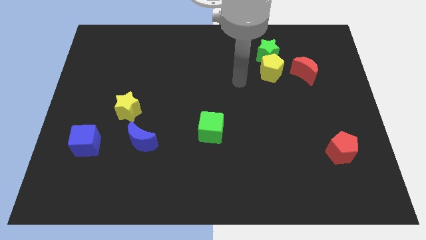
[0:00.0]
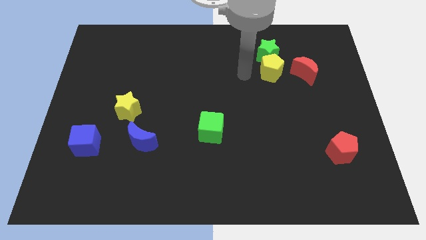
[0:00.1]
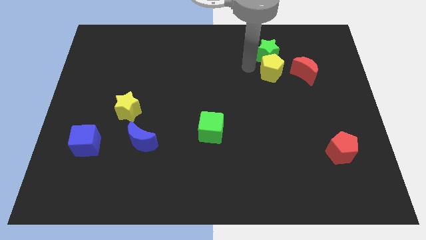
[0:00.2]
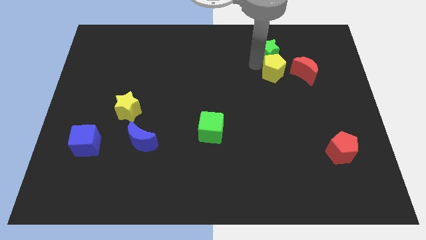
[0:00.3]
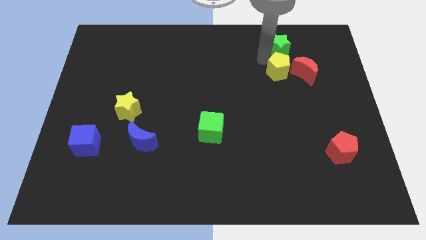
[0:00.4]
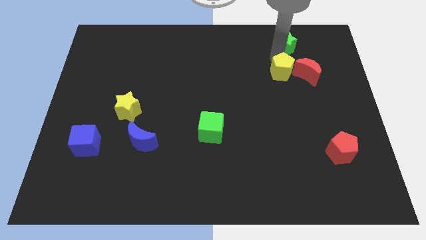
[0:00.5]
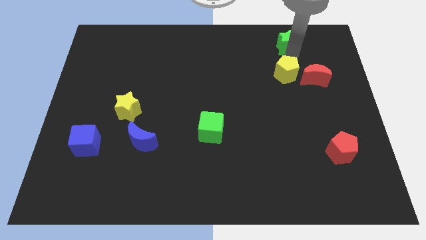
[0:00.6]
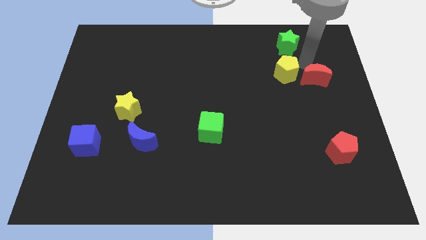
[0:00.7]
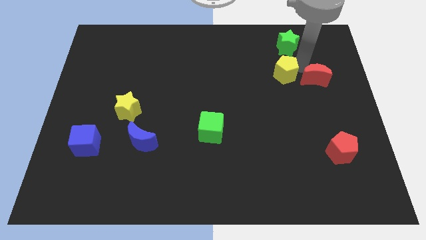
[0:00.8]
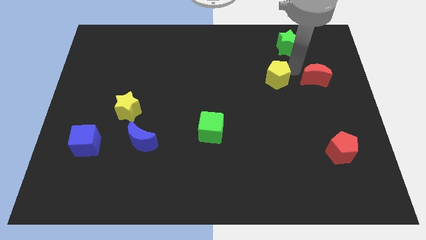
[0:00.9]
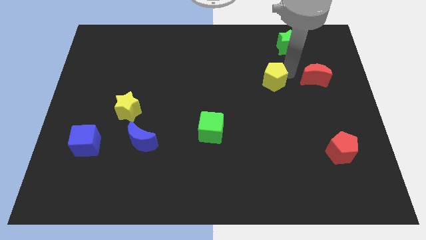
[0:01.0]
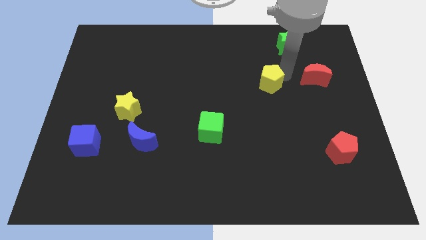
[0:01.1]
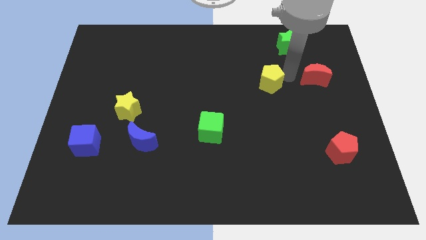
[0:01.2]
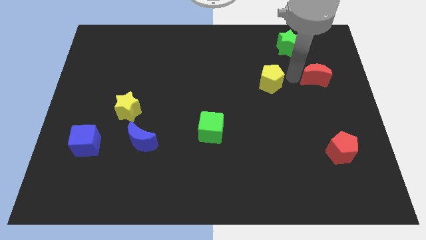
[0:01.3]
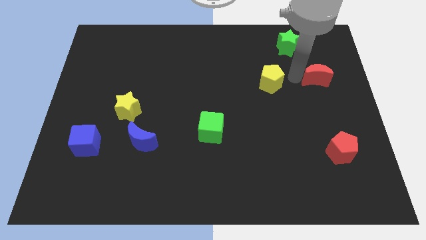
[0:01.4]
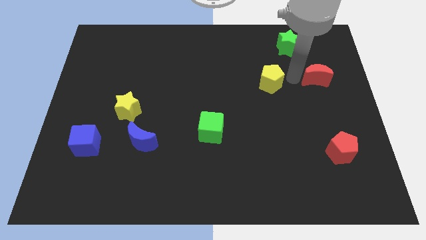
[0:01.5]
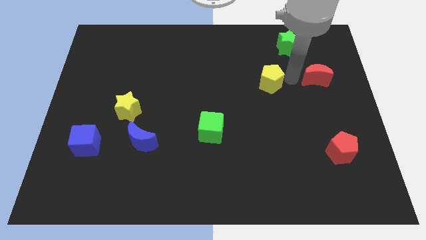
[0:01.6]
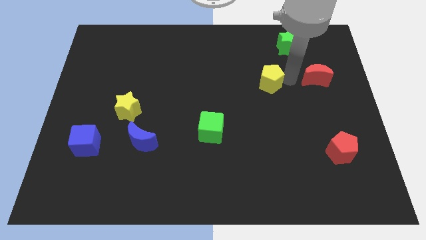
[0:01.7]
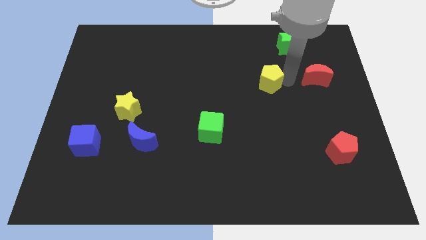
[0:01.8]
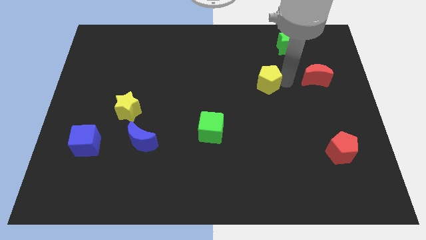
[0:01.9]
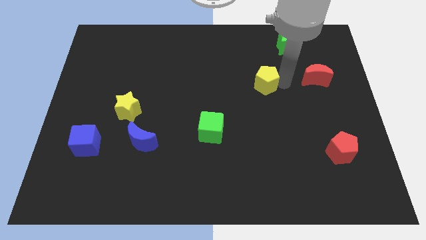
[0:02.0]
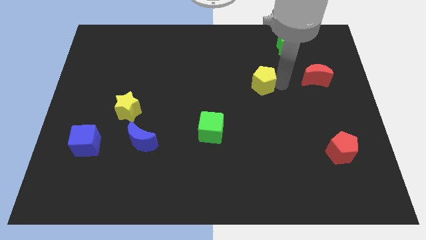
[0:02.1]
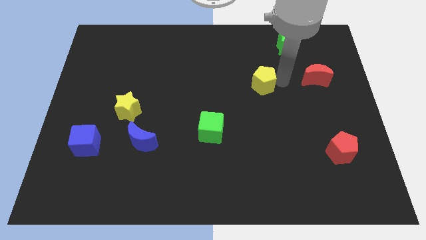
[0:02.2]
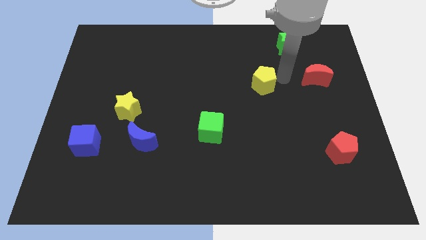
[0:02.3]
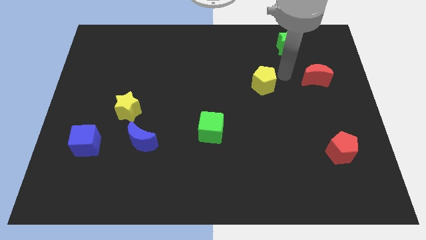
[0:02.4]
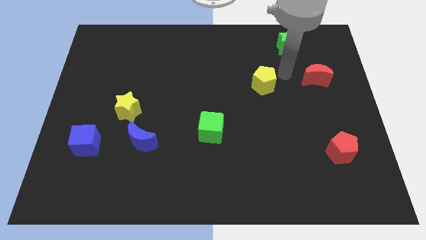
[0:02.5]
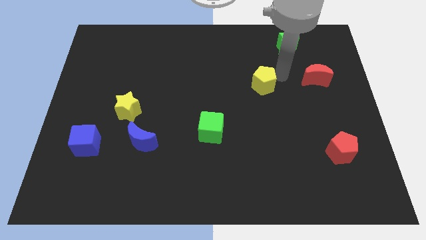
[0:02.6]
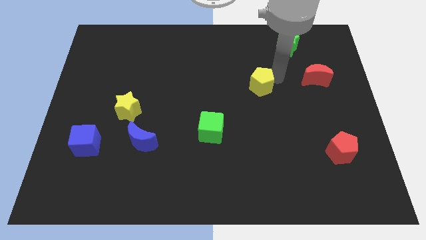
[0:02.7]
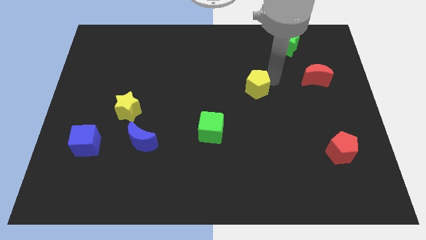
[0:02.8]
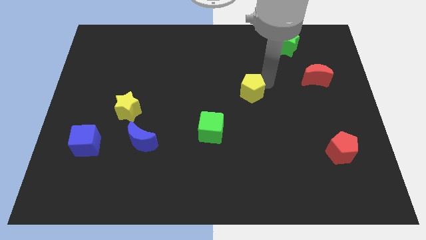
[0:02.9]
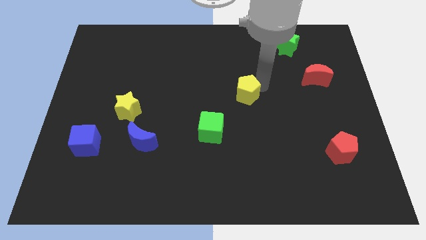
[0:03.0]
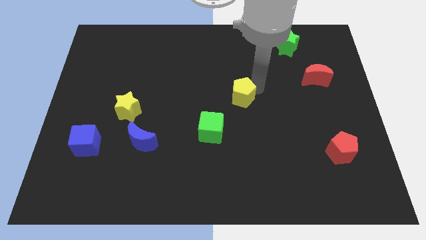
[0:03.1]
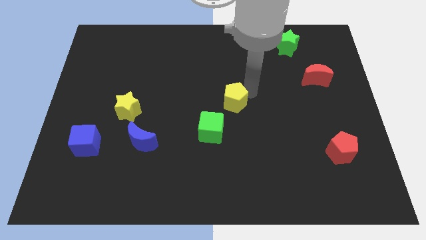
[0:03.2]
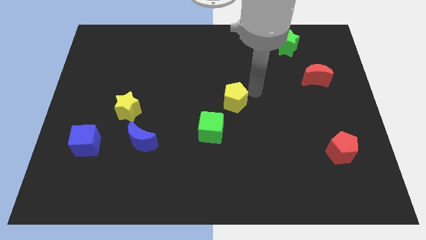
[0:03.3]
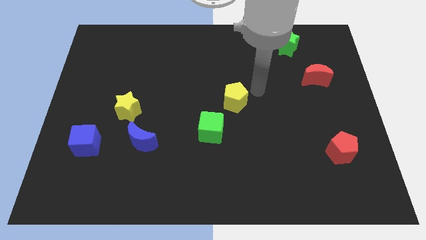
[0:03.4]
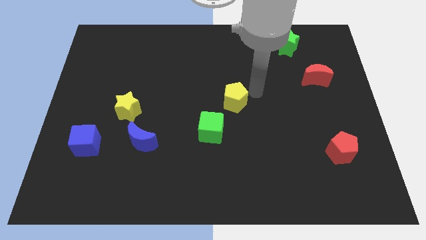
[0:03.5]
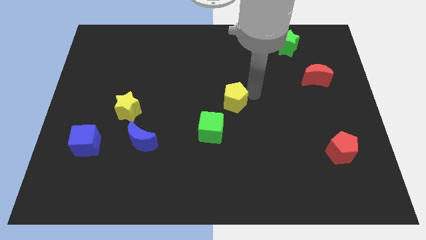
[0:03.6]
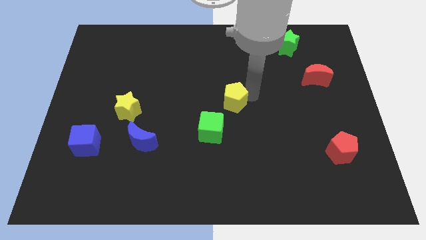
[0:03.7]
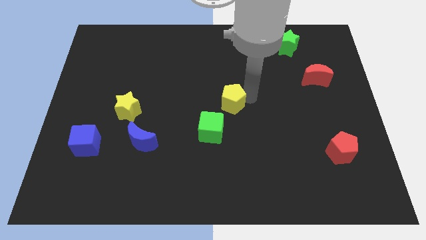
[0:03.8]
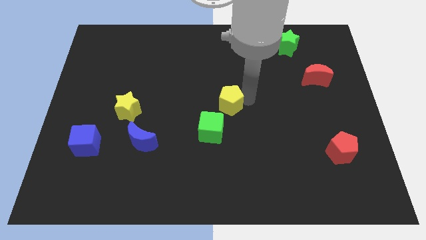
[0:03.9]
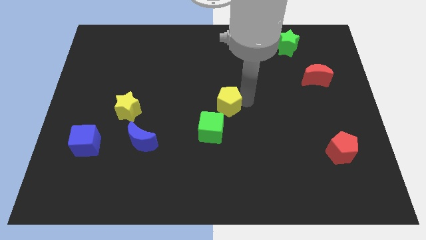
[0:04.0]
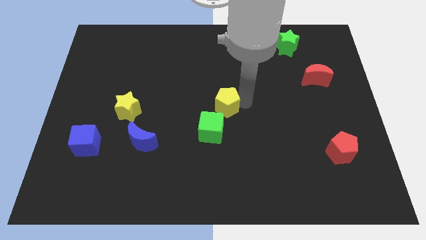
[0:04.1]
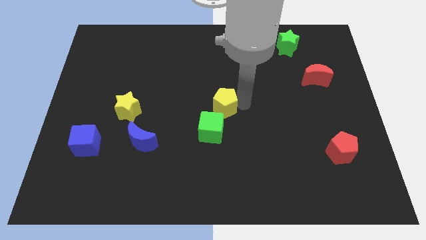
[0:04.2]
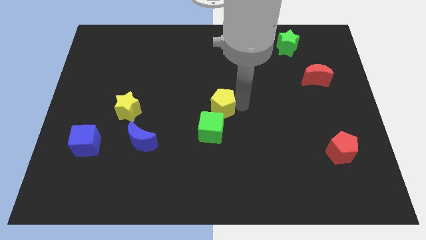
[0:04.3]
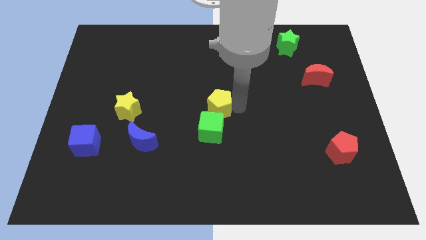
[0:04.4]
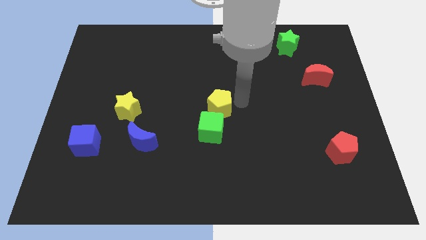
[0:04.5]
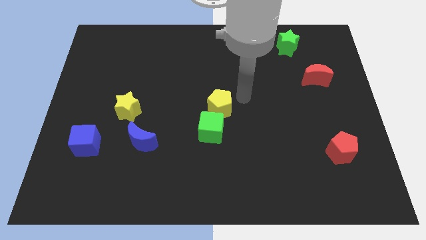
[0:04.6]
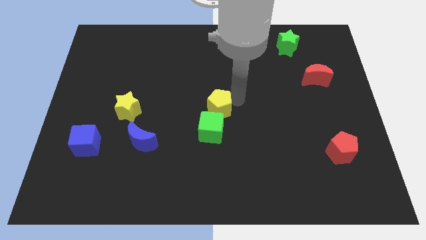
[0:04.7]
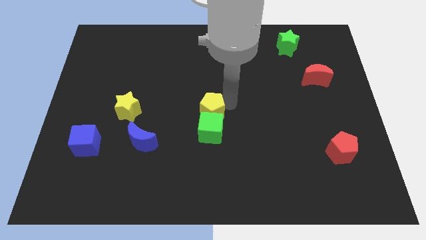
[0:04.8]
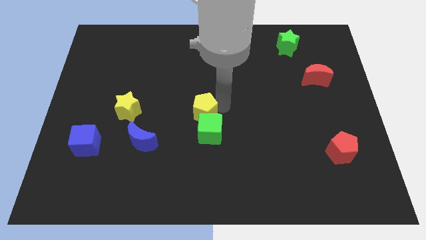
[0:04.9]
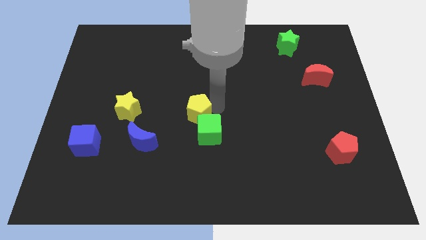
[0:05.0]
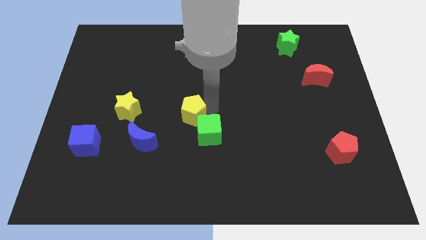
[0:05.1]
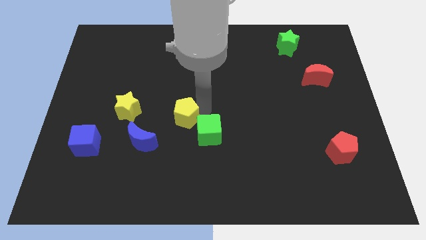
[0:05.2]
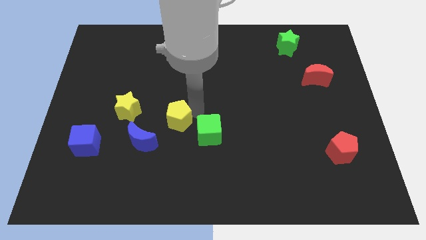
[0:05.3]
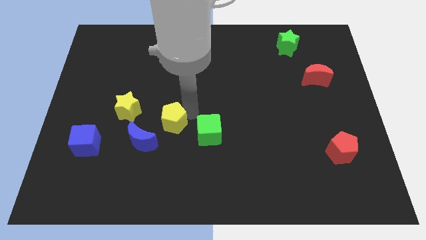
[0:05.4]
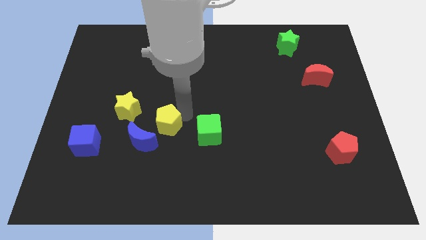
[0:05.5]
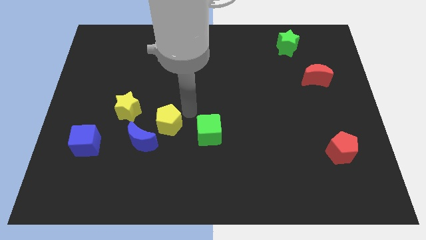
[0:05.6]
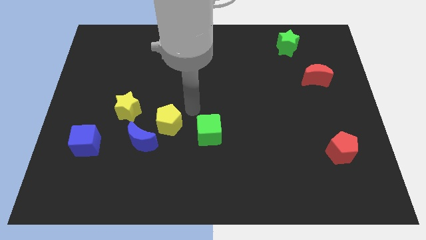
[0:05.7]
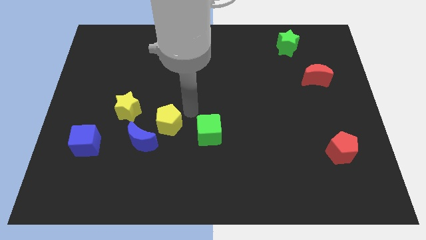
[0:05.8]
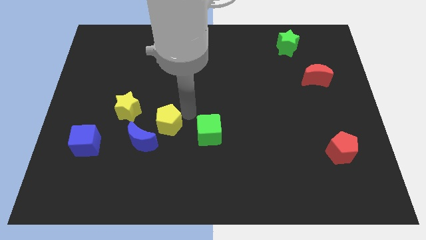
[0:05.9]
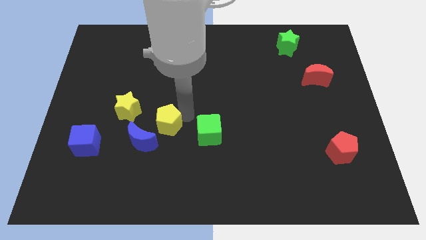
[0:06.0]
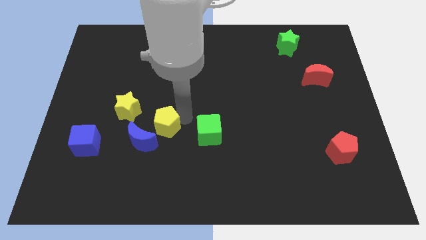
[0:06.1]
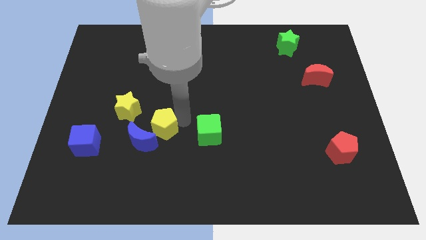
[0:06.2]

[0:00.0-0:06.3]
push the yellow pentagon next to the blue moon

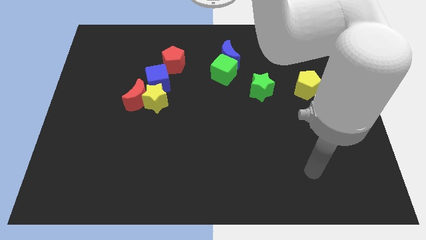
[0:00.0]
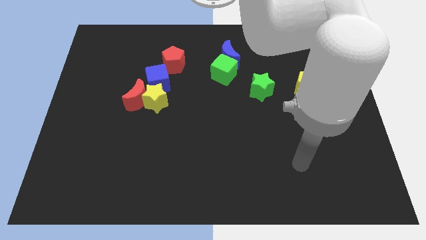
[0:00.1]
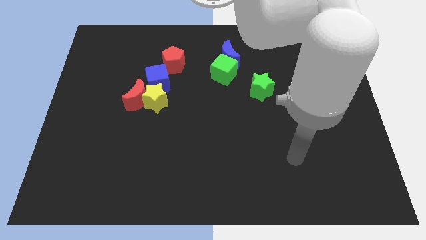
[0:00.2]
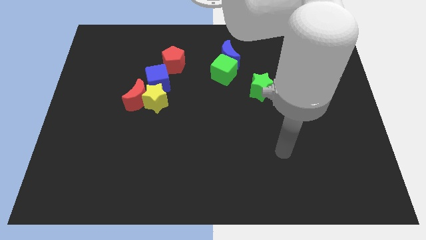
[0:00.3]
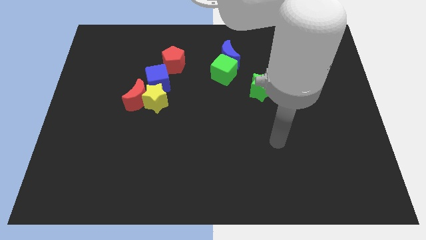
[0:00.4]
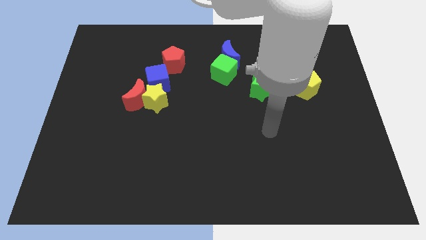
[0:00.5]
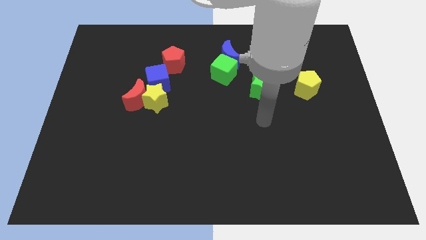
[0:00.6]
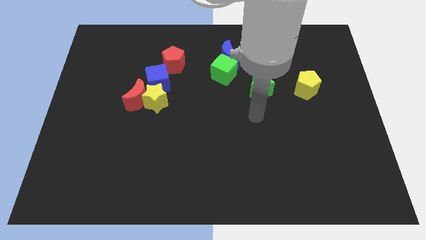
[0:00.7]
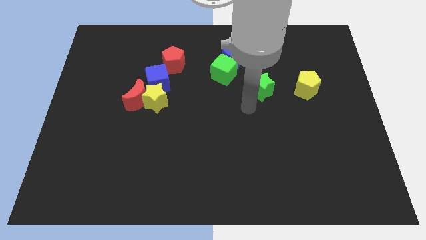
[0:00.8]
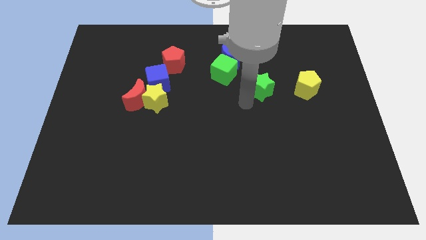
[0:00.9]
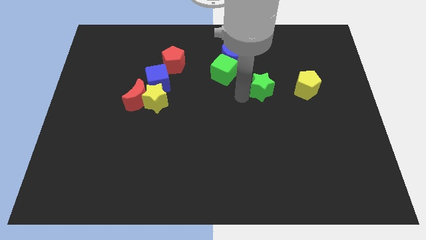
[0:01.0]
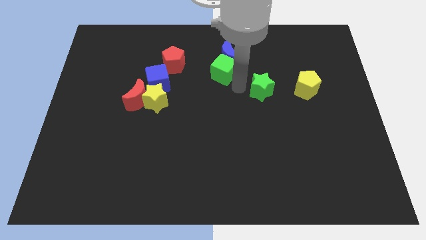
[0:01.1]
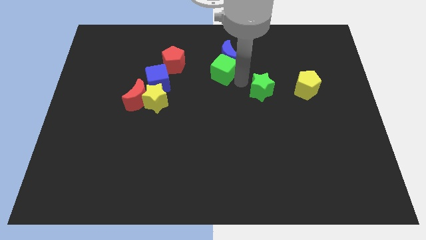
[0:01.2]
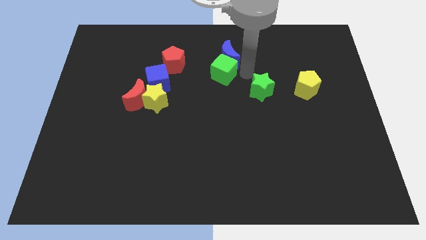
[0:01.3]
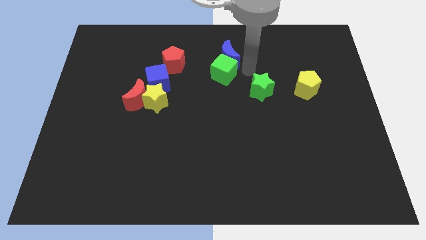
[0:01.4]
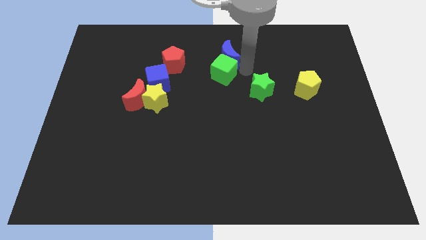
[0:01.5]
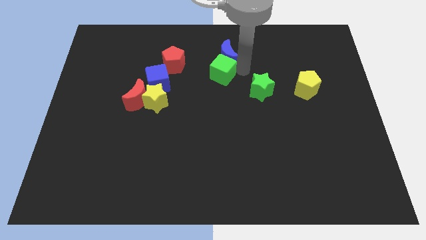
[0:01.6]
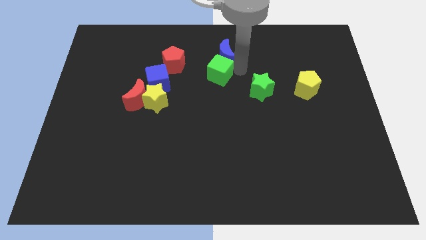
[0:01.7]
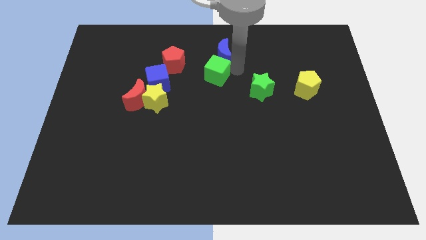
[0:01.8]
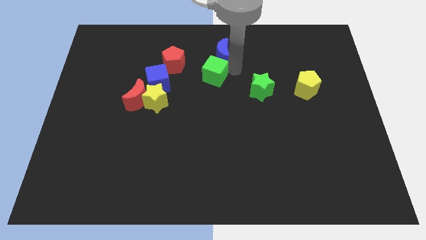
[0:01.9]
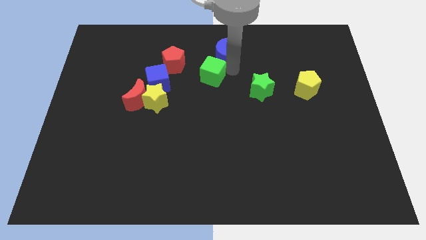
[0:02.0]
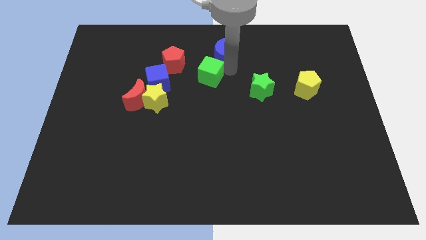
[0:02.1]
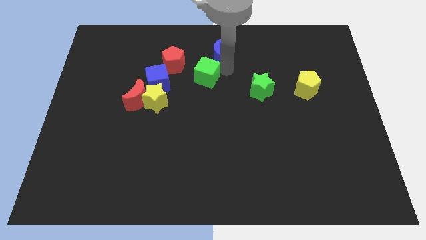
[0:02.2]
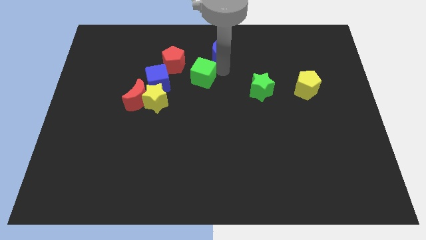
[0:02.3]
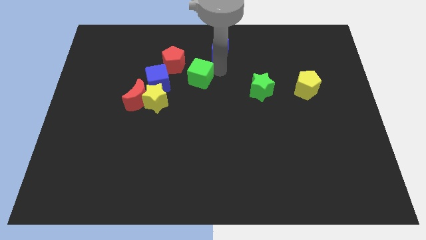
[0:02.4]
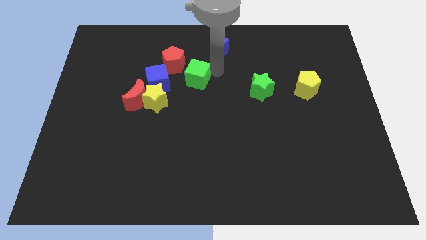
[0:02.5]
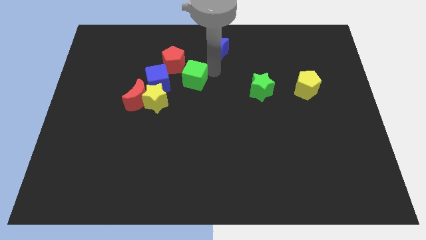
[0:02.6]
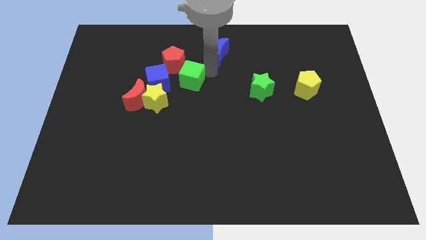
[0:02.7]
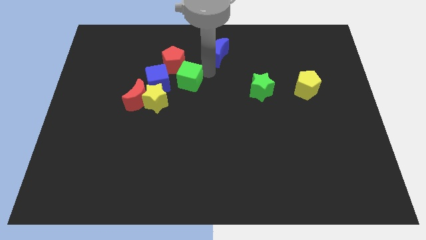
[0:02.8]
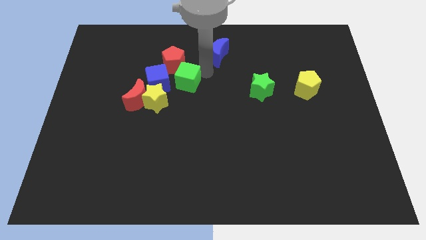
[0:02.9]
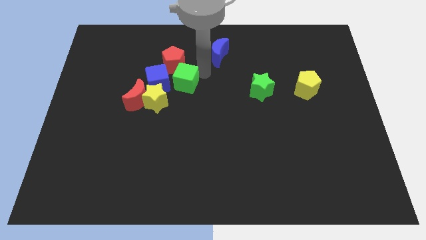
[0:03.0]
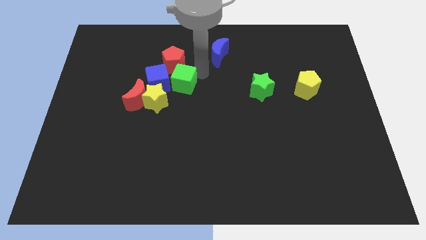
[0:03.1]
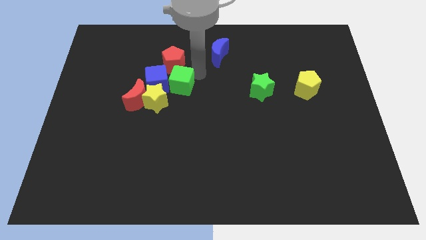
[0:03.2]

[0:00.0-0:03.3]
move the green cube next to the blue cube
